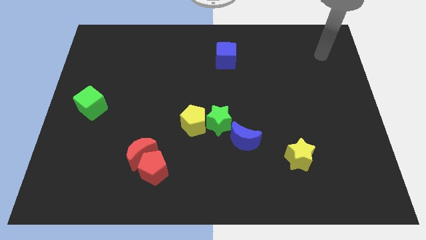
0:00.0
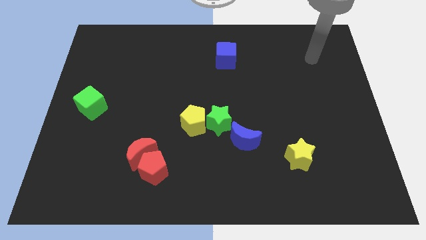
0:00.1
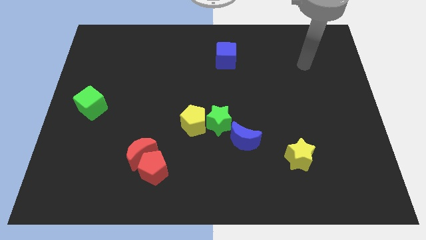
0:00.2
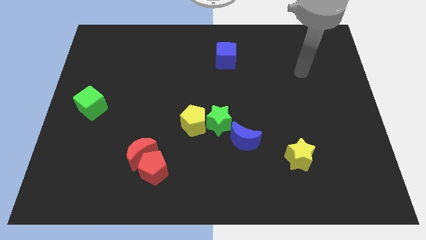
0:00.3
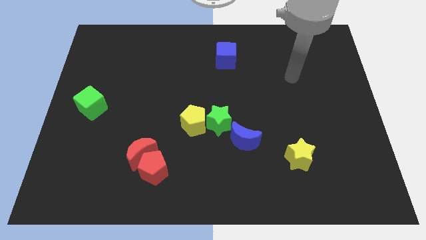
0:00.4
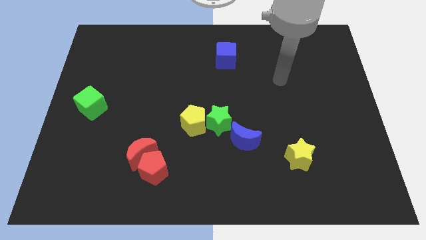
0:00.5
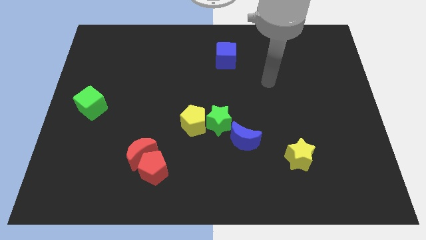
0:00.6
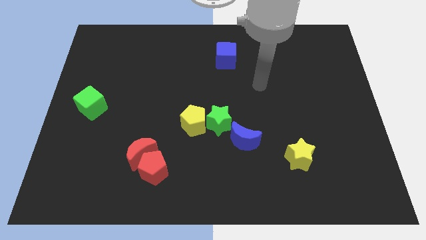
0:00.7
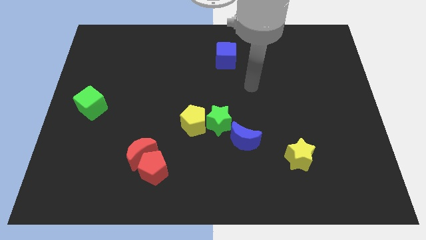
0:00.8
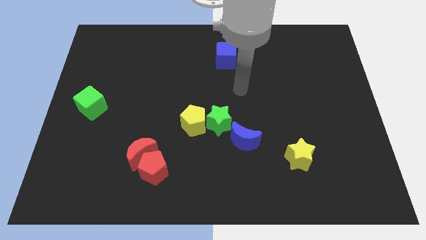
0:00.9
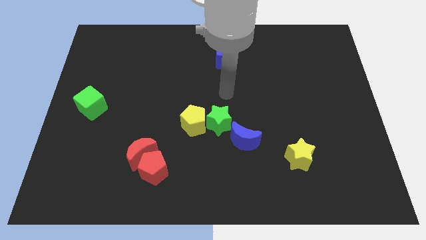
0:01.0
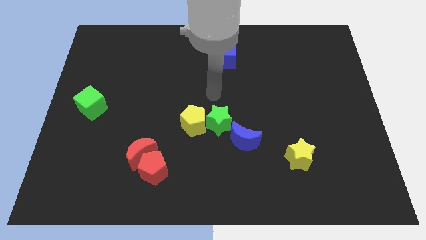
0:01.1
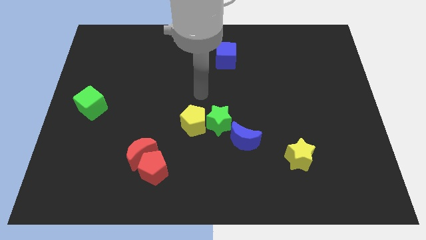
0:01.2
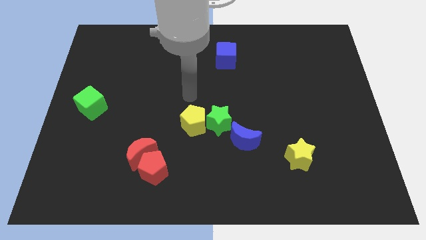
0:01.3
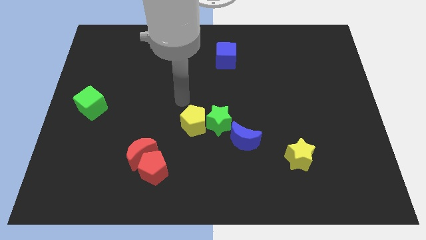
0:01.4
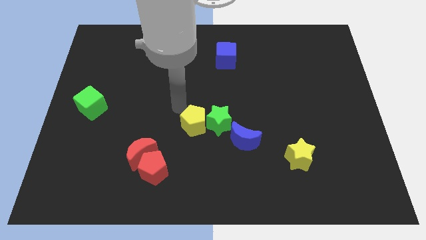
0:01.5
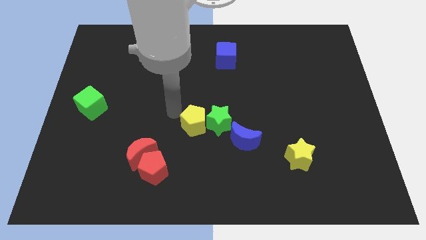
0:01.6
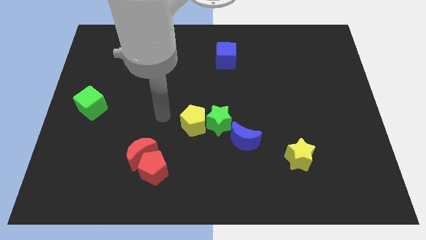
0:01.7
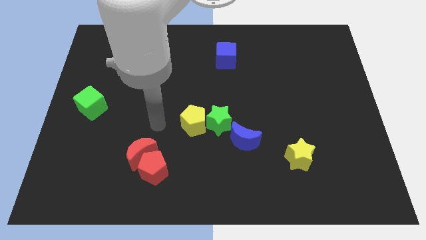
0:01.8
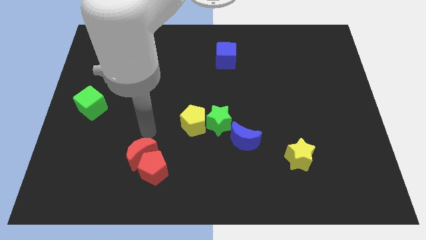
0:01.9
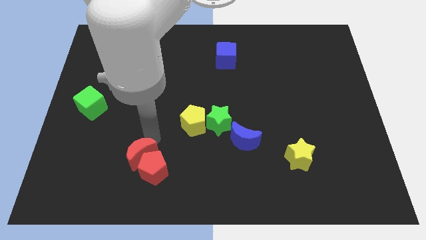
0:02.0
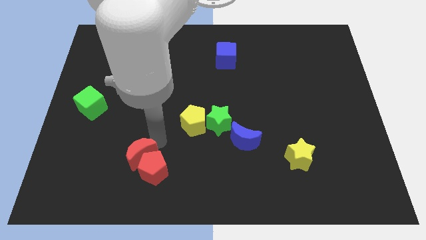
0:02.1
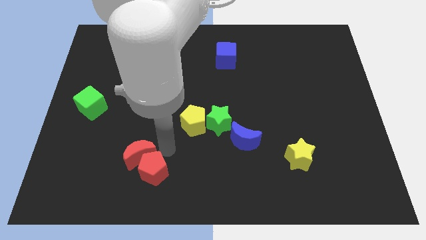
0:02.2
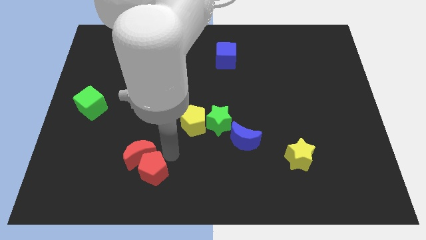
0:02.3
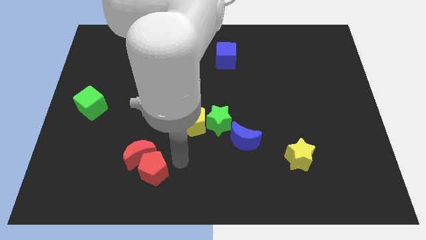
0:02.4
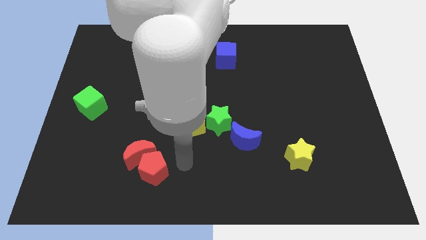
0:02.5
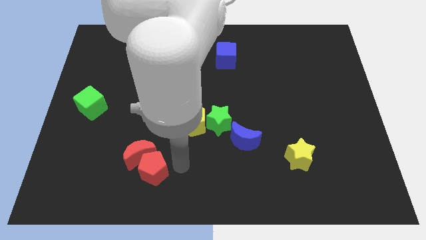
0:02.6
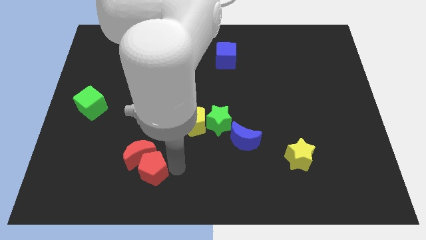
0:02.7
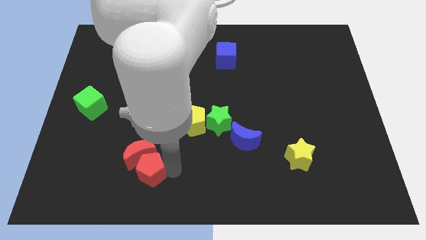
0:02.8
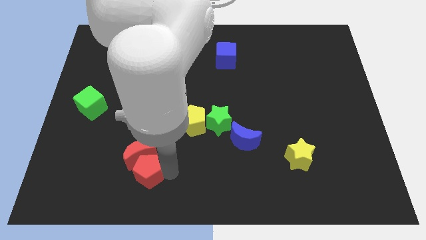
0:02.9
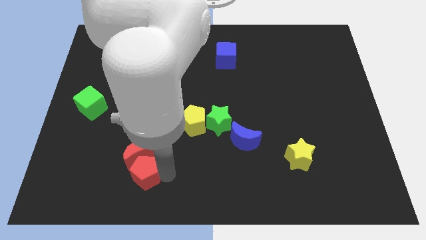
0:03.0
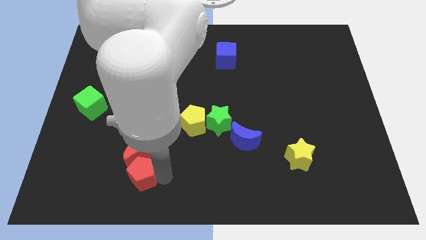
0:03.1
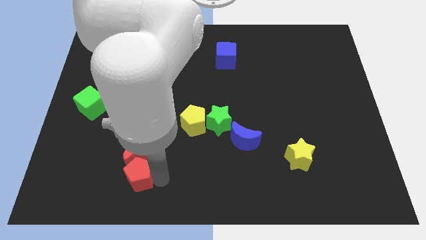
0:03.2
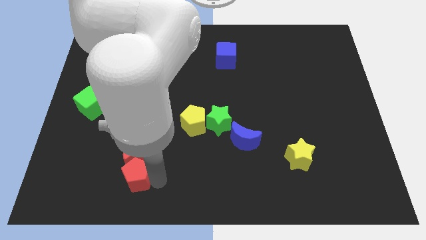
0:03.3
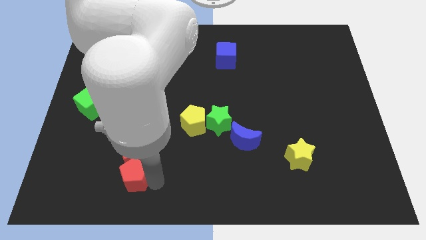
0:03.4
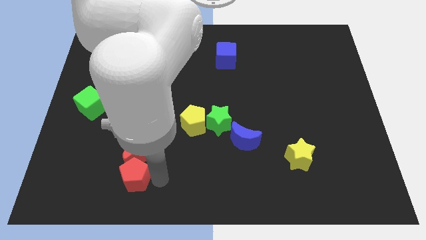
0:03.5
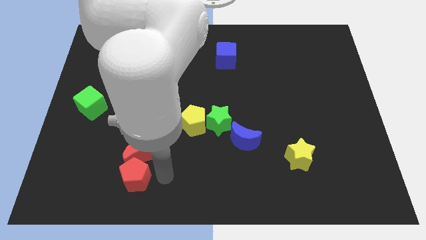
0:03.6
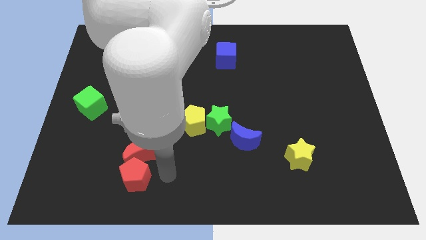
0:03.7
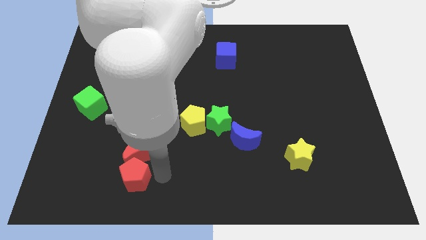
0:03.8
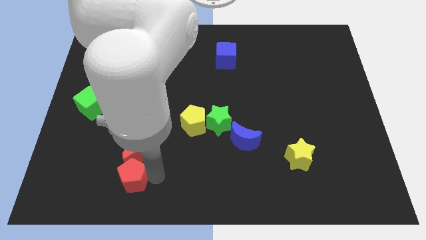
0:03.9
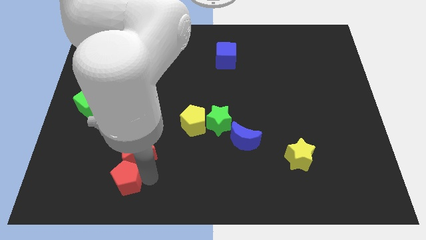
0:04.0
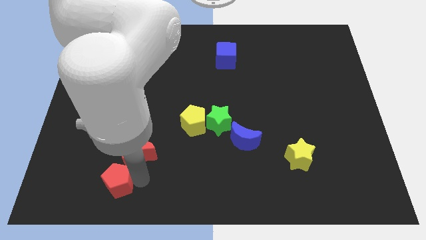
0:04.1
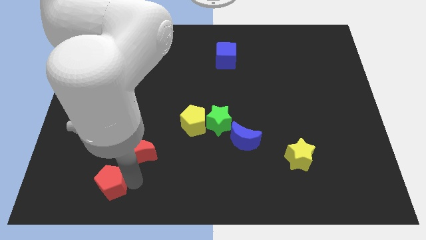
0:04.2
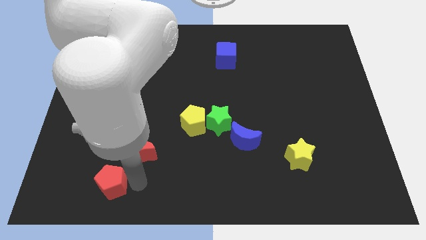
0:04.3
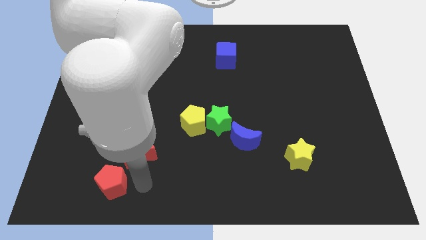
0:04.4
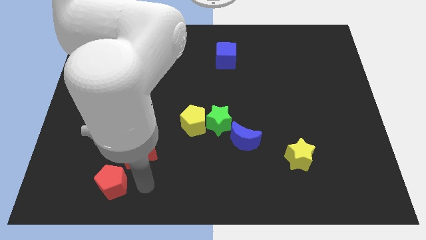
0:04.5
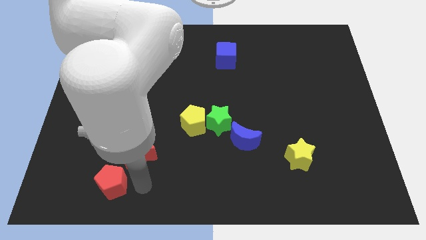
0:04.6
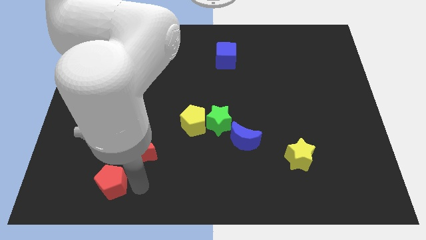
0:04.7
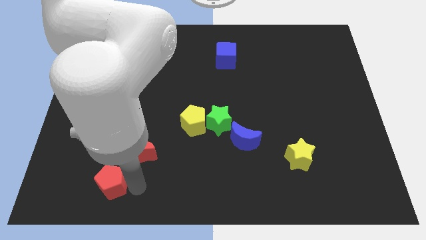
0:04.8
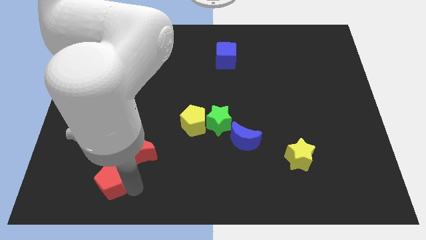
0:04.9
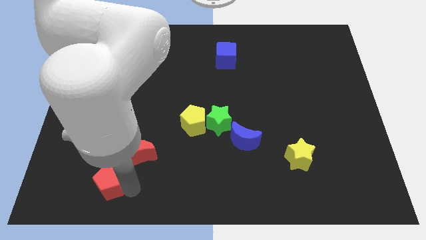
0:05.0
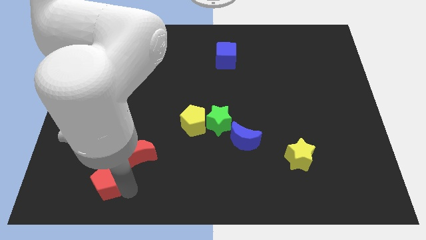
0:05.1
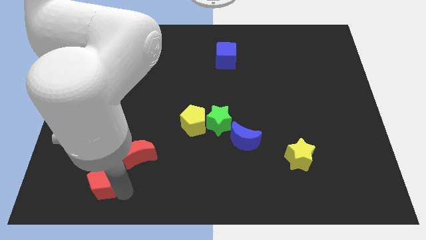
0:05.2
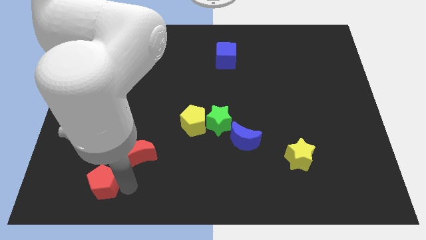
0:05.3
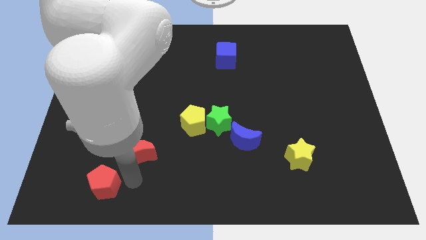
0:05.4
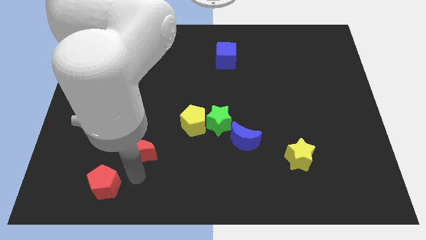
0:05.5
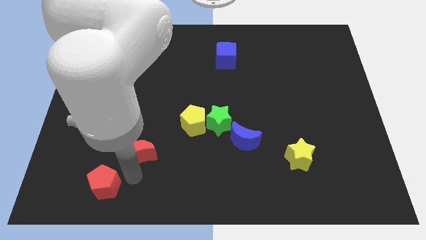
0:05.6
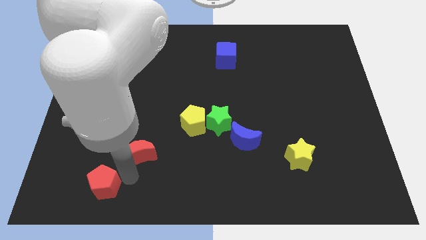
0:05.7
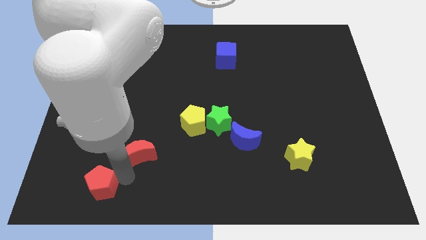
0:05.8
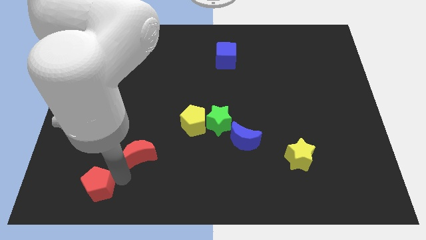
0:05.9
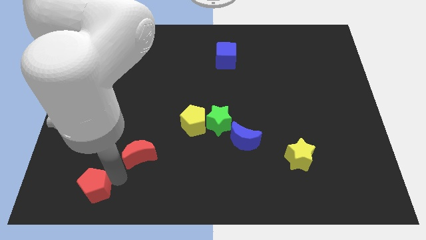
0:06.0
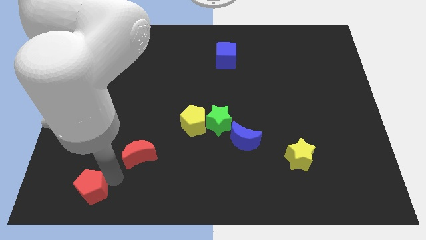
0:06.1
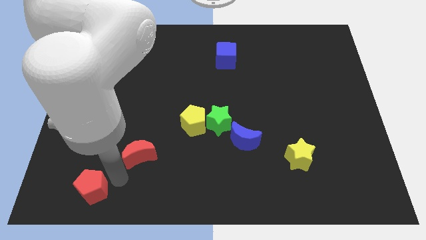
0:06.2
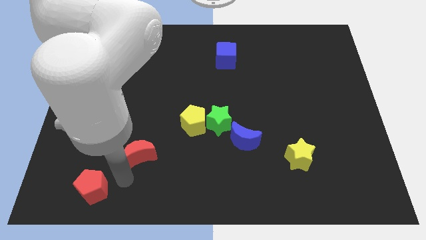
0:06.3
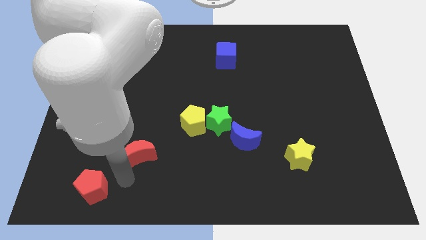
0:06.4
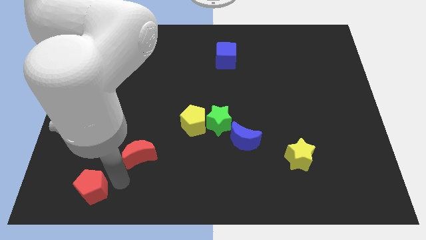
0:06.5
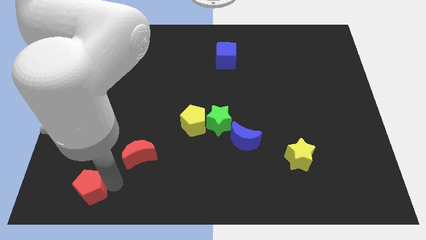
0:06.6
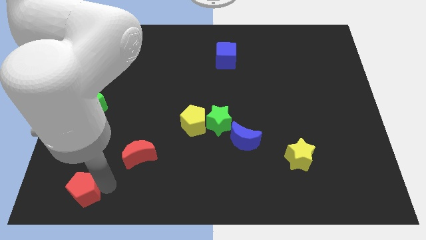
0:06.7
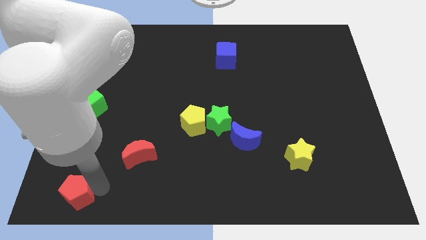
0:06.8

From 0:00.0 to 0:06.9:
put the red pentagon to the lower left corner

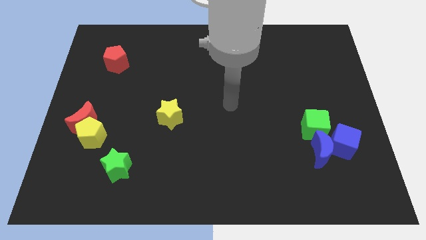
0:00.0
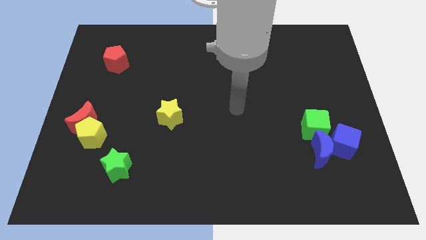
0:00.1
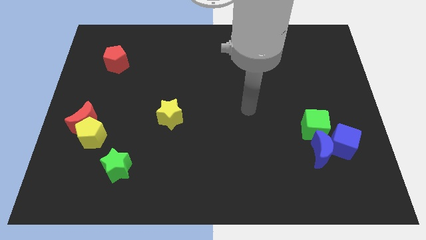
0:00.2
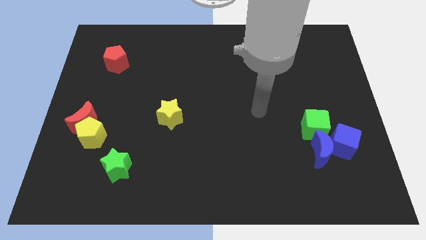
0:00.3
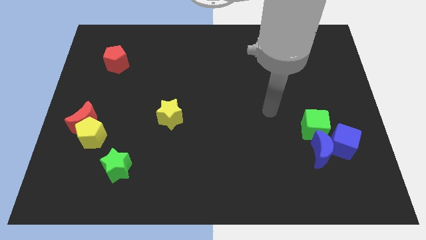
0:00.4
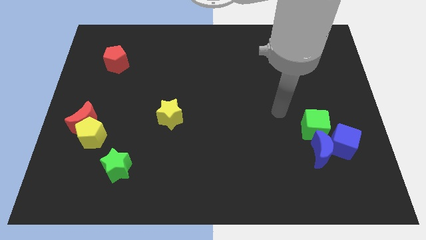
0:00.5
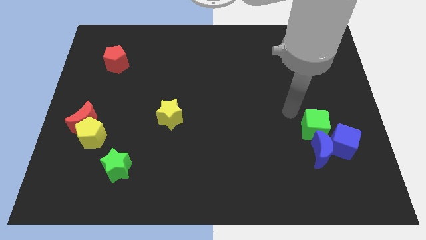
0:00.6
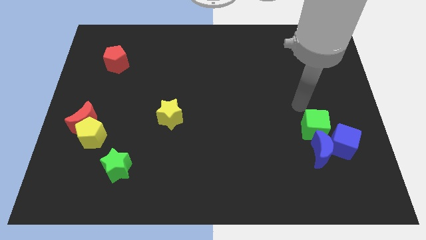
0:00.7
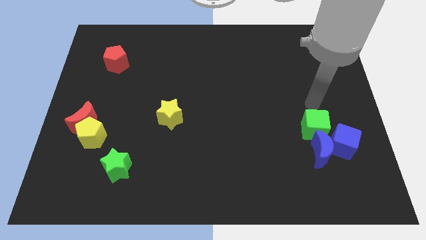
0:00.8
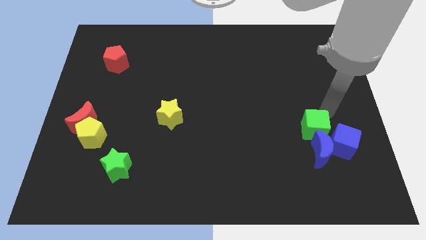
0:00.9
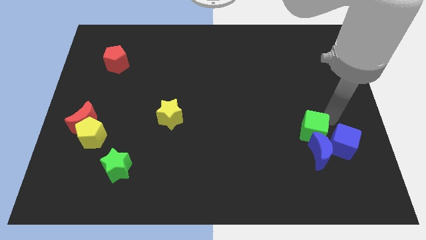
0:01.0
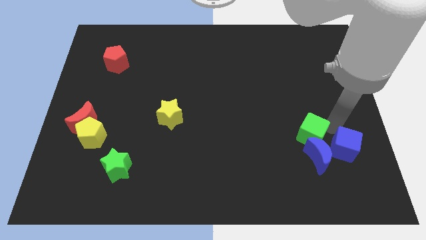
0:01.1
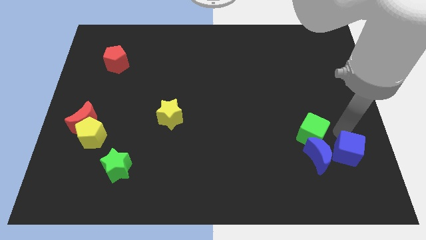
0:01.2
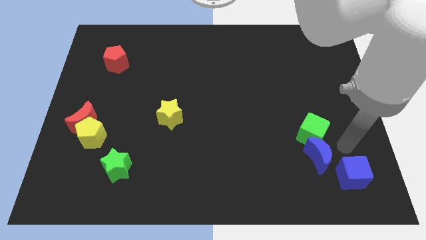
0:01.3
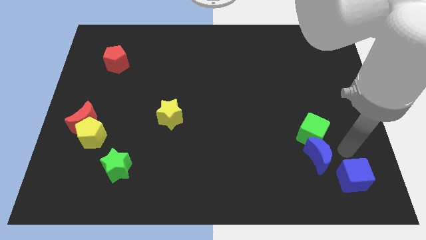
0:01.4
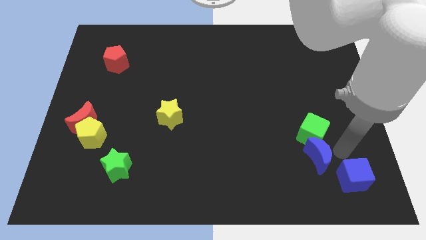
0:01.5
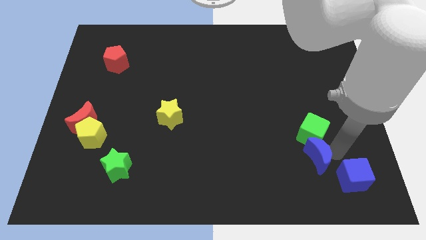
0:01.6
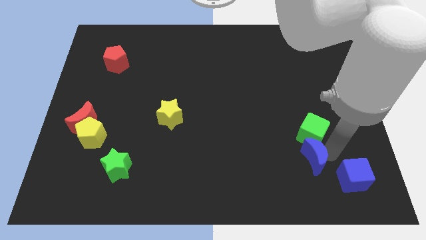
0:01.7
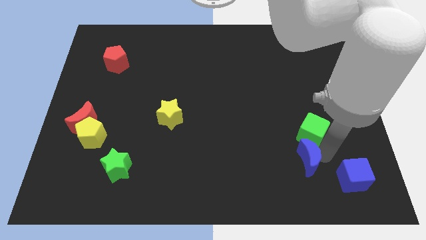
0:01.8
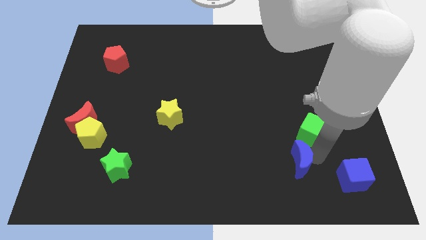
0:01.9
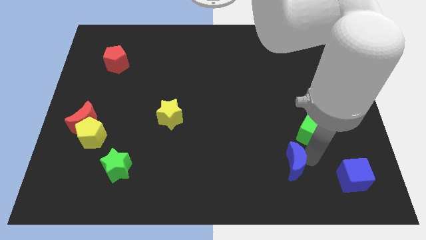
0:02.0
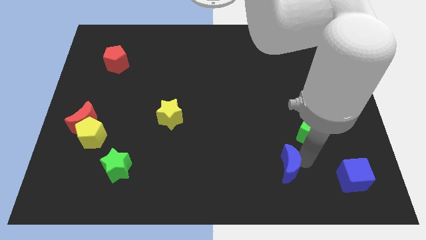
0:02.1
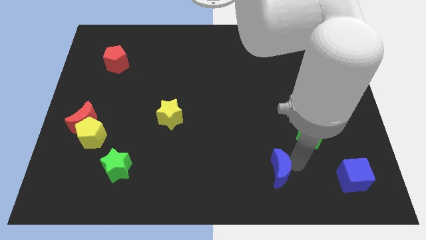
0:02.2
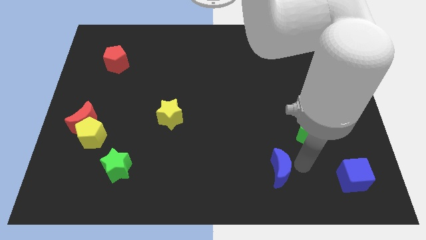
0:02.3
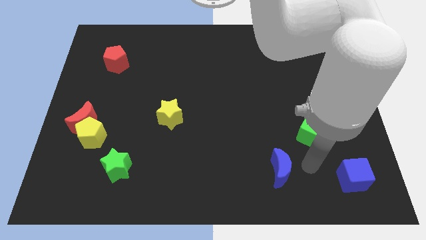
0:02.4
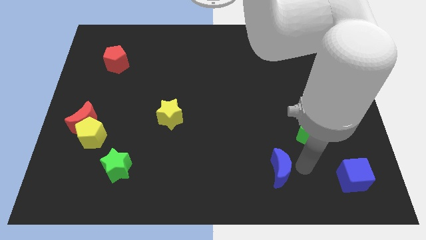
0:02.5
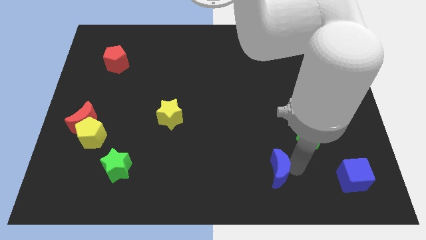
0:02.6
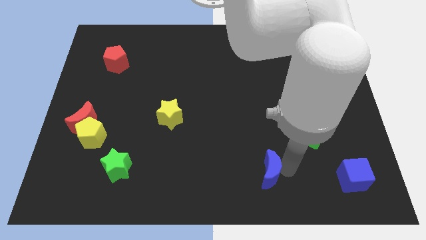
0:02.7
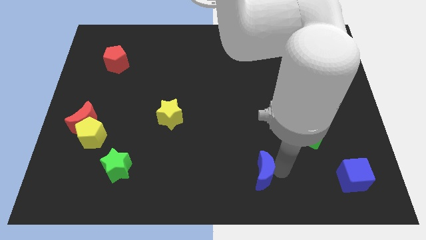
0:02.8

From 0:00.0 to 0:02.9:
put the blue moon to the bottom side
